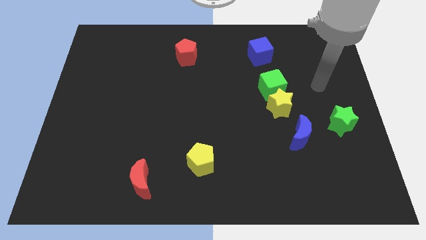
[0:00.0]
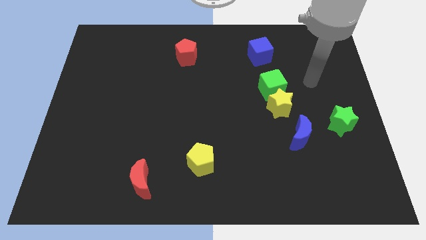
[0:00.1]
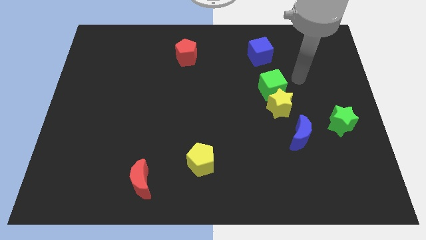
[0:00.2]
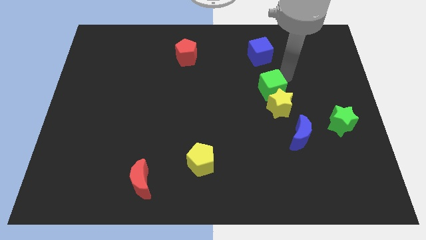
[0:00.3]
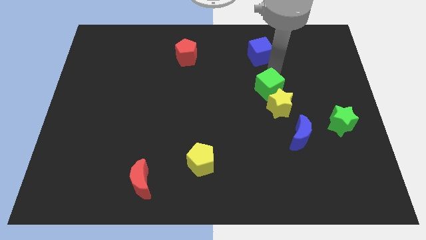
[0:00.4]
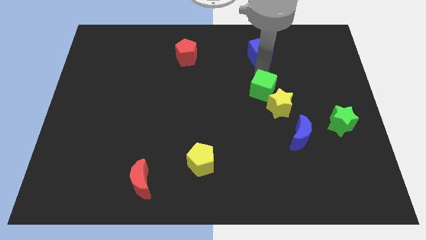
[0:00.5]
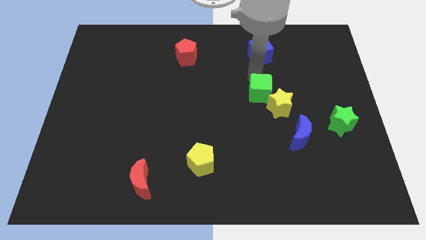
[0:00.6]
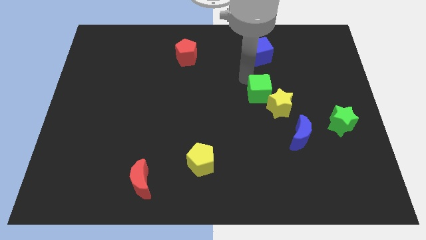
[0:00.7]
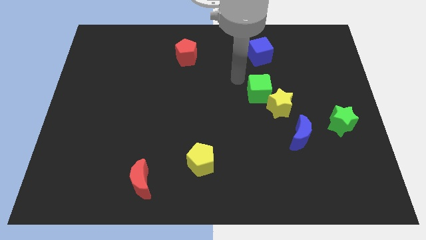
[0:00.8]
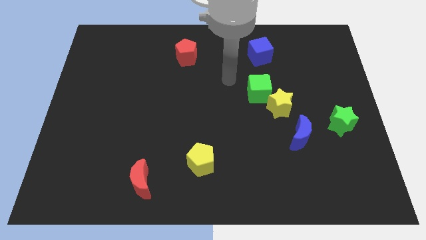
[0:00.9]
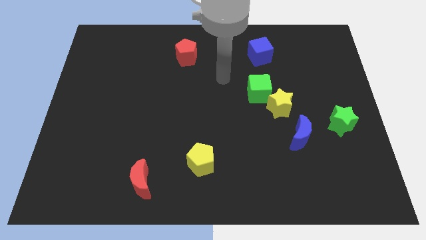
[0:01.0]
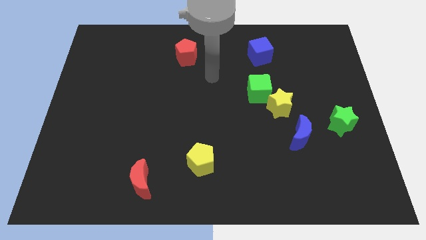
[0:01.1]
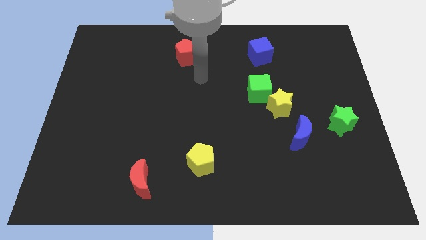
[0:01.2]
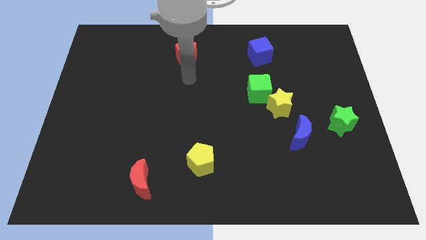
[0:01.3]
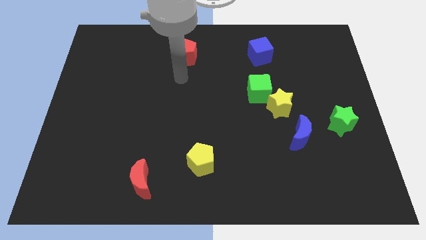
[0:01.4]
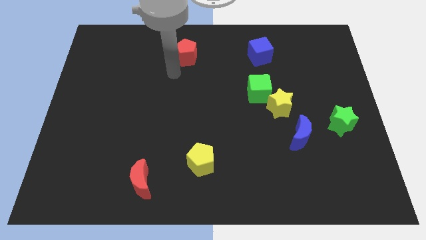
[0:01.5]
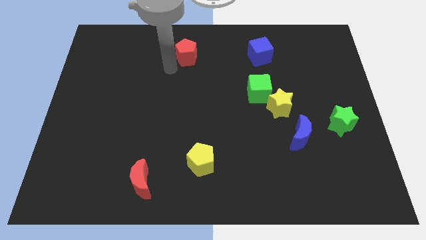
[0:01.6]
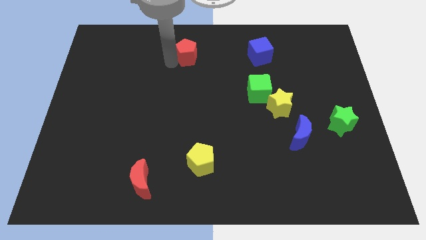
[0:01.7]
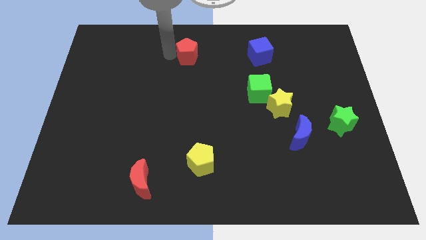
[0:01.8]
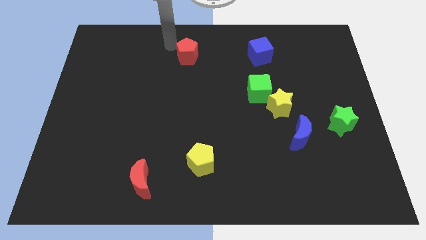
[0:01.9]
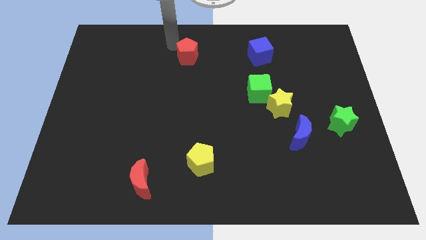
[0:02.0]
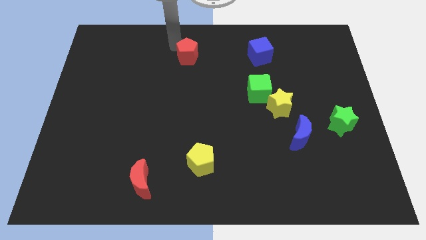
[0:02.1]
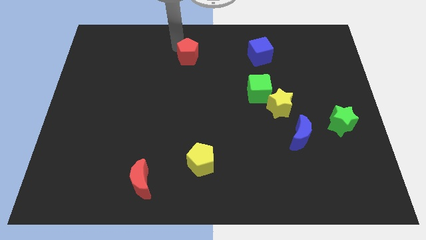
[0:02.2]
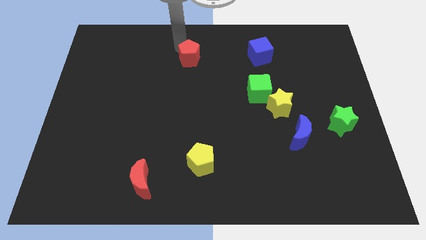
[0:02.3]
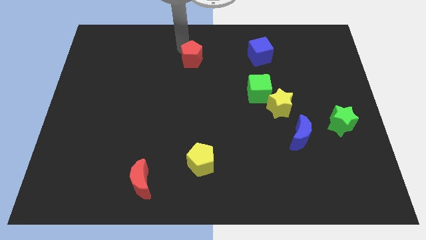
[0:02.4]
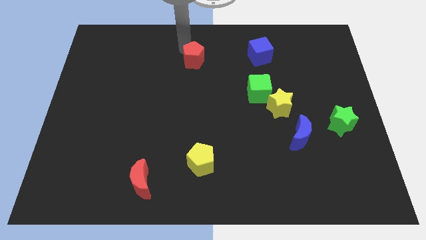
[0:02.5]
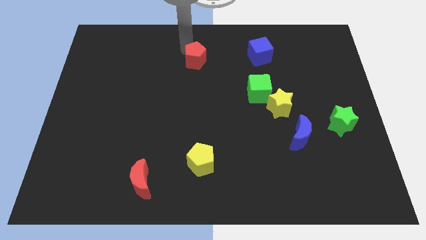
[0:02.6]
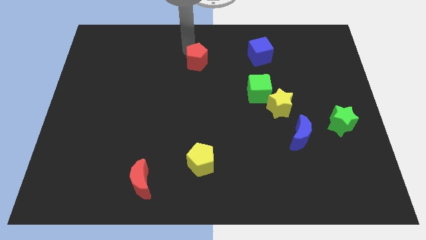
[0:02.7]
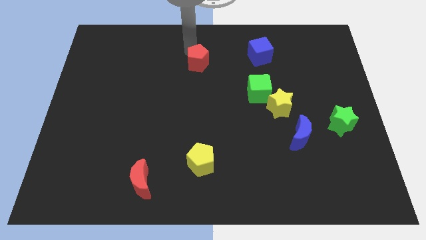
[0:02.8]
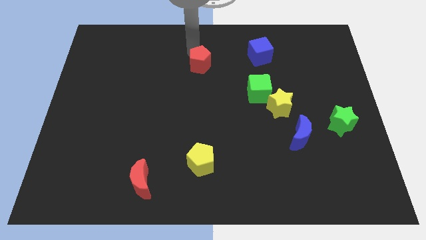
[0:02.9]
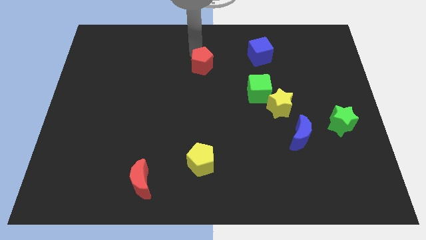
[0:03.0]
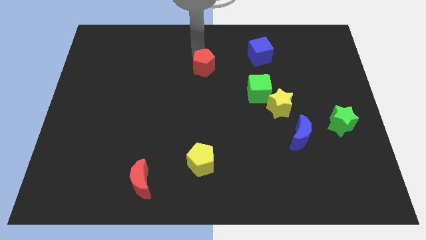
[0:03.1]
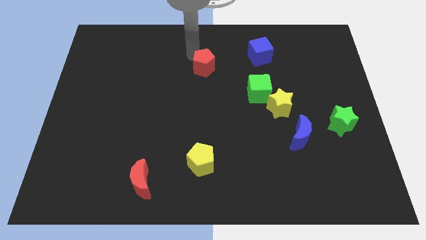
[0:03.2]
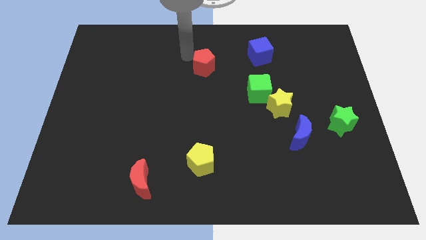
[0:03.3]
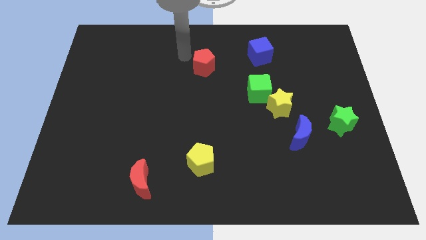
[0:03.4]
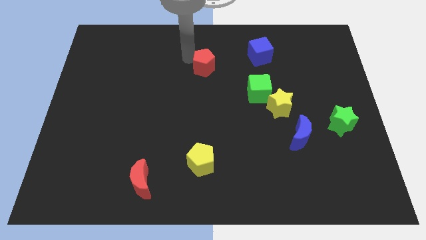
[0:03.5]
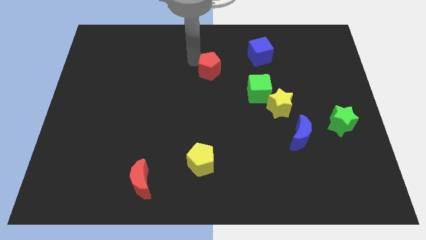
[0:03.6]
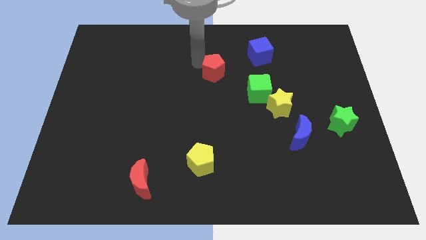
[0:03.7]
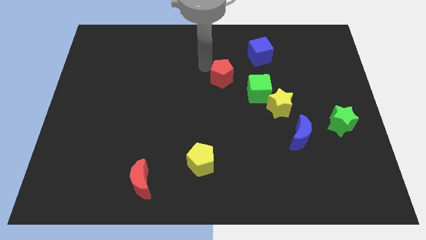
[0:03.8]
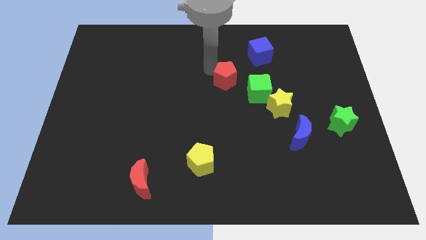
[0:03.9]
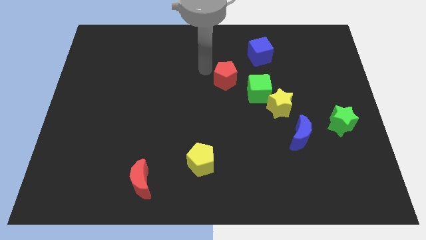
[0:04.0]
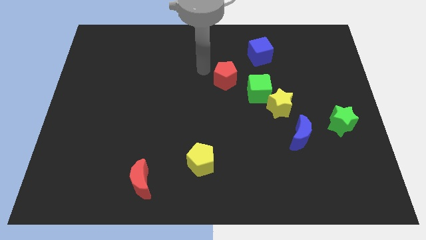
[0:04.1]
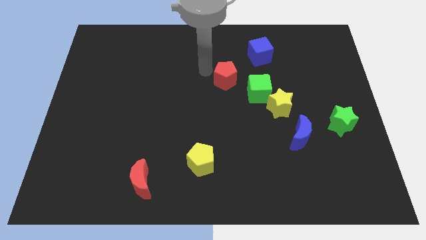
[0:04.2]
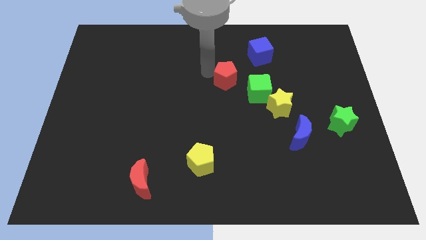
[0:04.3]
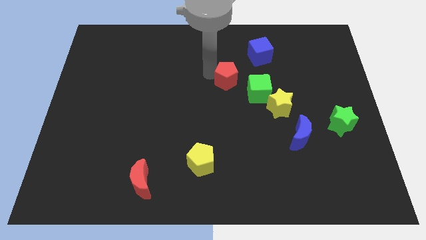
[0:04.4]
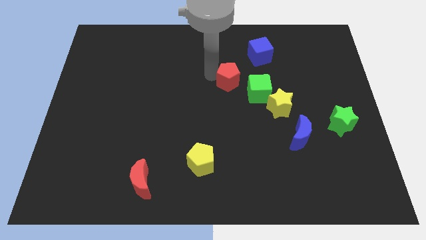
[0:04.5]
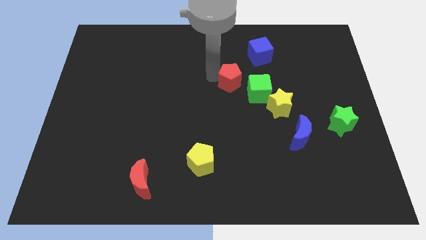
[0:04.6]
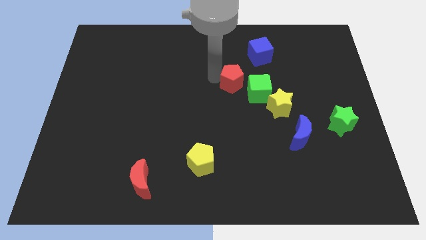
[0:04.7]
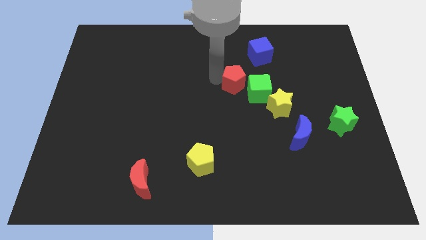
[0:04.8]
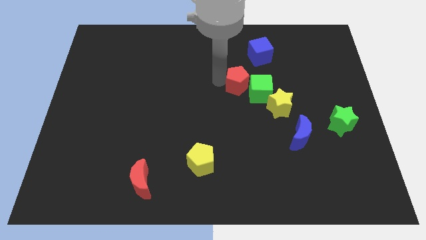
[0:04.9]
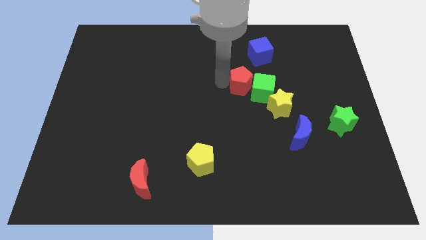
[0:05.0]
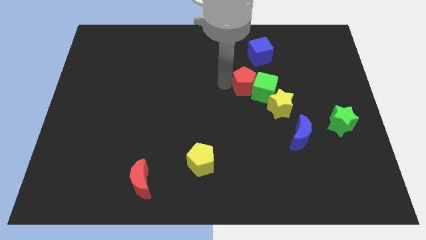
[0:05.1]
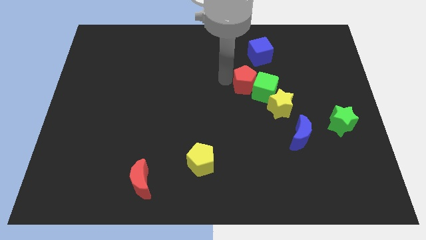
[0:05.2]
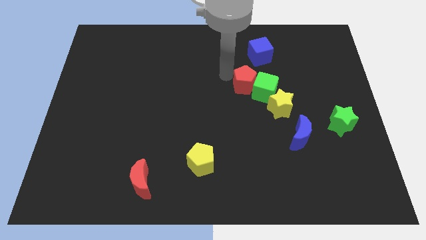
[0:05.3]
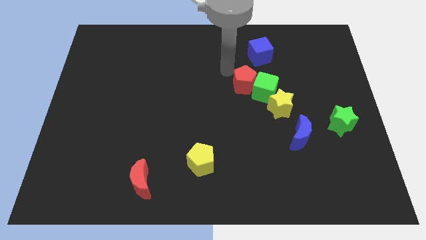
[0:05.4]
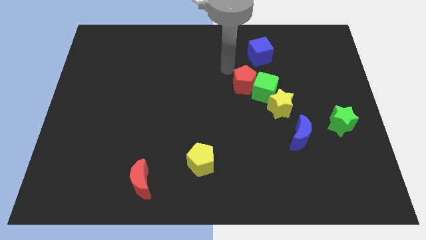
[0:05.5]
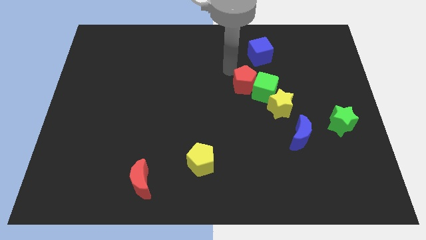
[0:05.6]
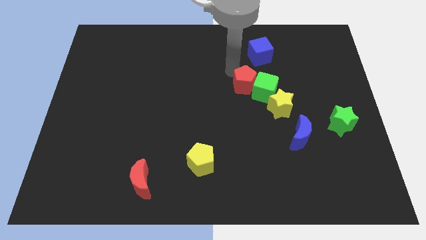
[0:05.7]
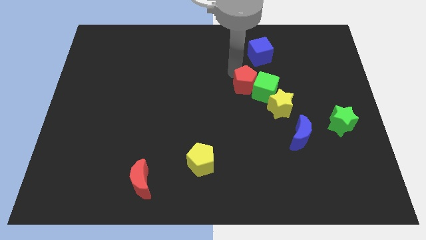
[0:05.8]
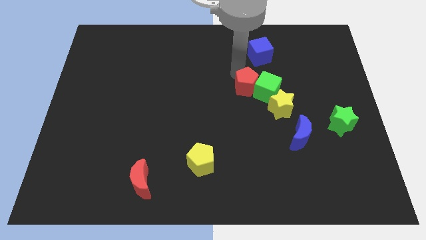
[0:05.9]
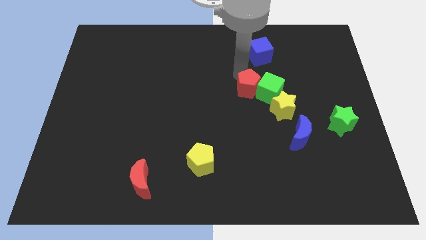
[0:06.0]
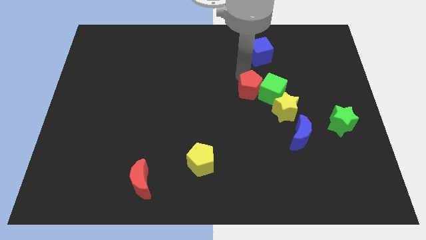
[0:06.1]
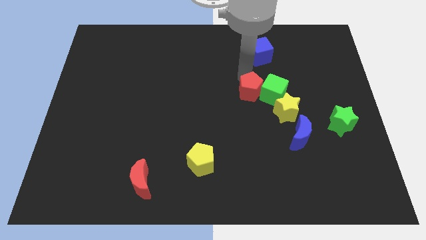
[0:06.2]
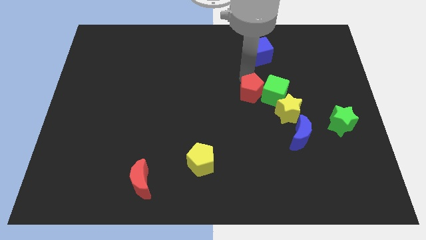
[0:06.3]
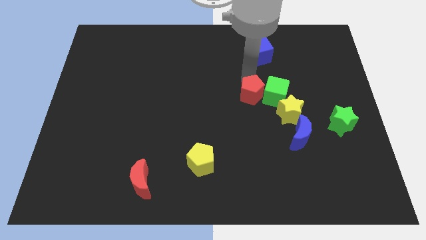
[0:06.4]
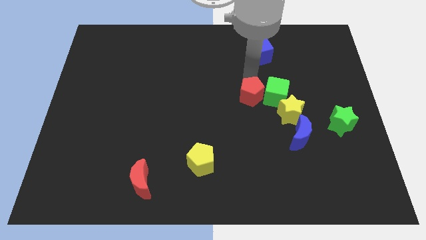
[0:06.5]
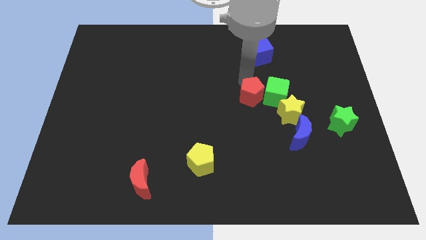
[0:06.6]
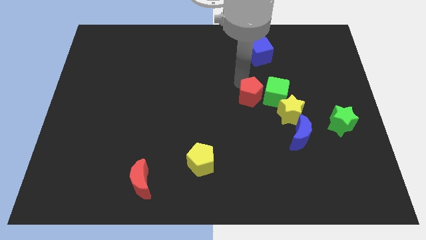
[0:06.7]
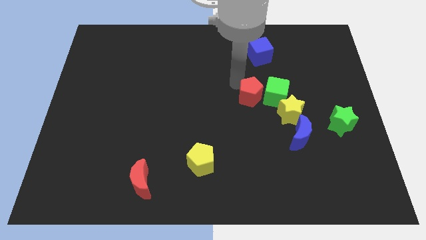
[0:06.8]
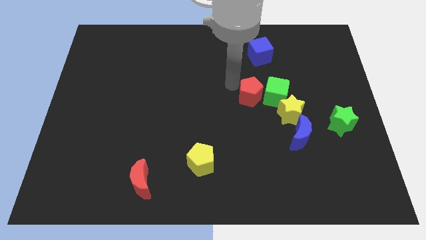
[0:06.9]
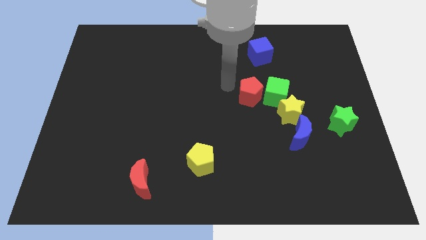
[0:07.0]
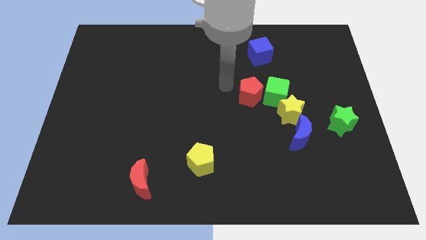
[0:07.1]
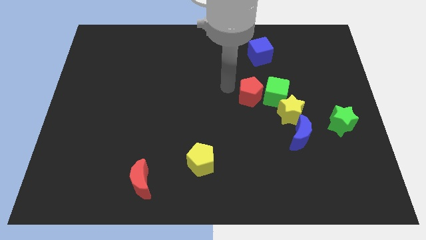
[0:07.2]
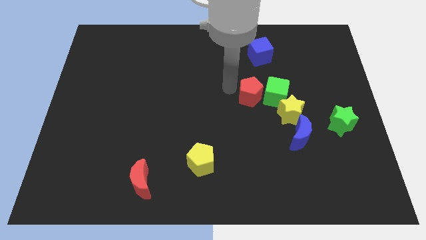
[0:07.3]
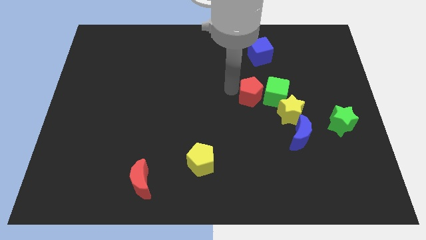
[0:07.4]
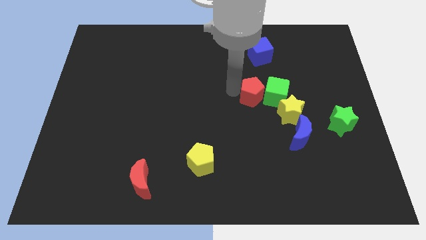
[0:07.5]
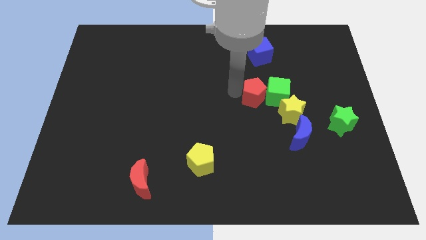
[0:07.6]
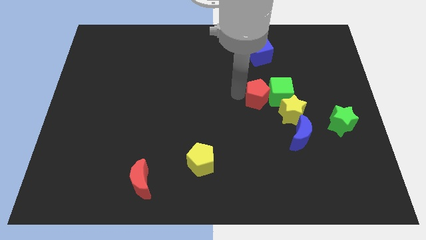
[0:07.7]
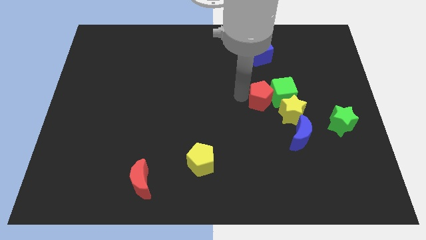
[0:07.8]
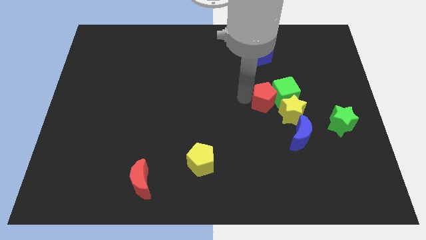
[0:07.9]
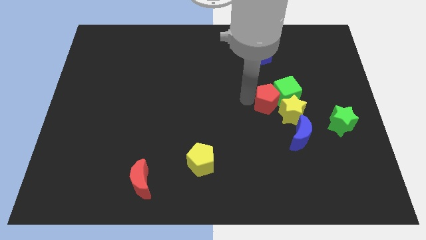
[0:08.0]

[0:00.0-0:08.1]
push the red pentagon towards the yellow star
